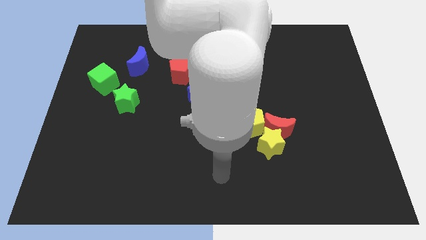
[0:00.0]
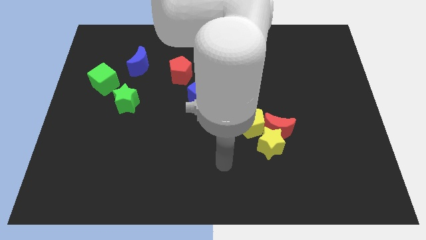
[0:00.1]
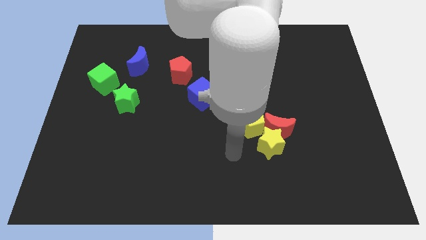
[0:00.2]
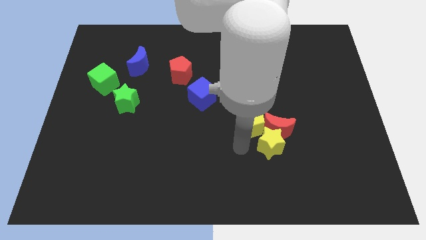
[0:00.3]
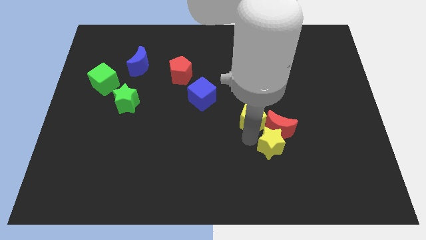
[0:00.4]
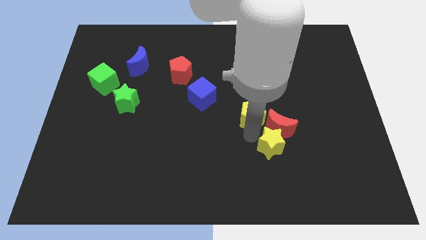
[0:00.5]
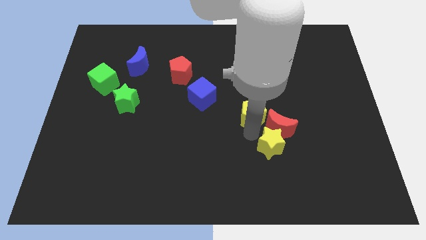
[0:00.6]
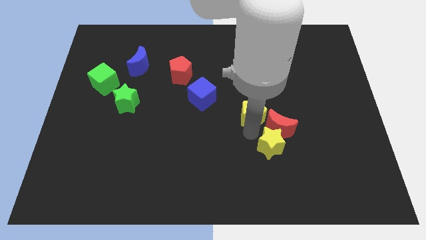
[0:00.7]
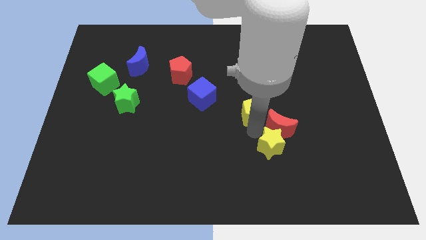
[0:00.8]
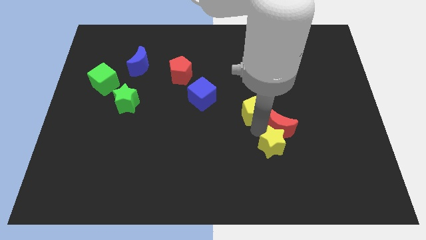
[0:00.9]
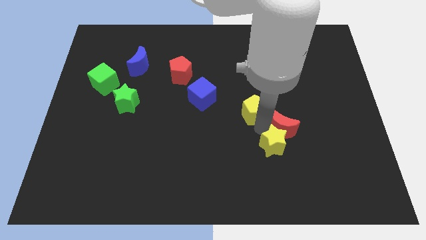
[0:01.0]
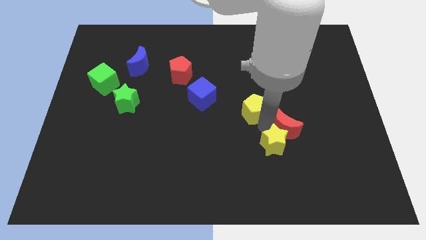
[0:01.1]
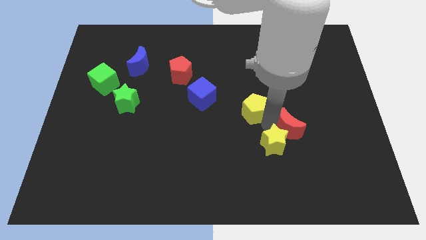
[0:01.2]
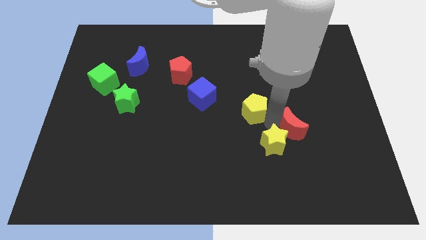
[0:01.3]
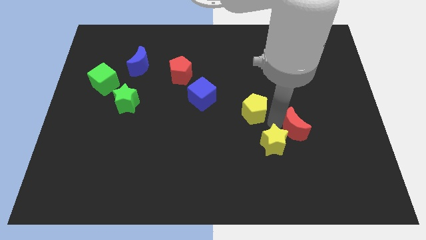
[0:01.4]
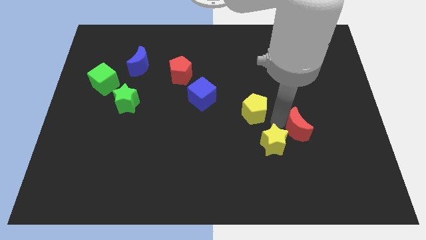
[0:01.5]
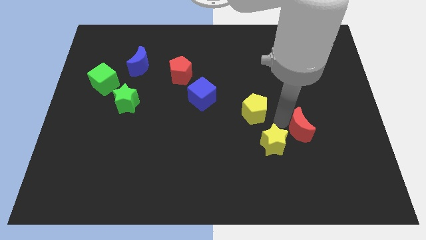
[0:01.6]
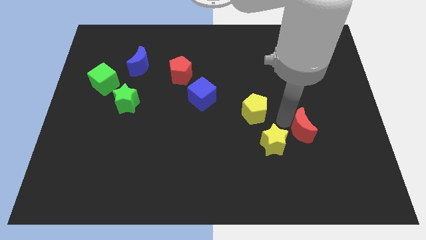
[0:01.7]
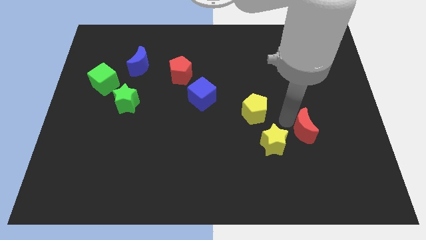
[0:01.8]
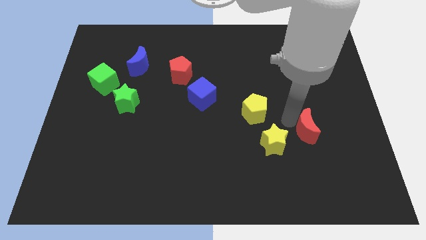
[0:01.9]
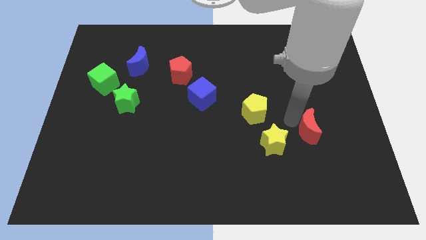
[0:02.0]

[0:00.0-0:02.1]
move the red moon away from the yellow star and yellow pentagon

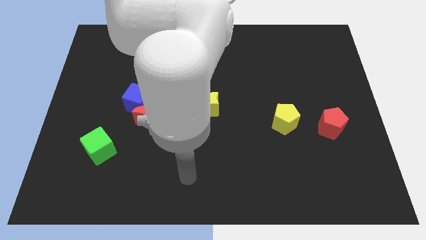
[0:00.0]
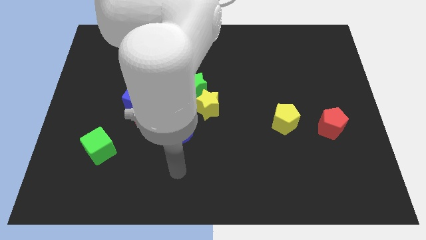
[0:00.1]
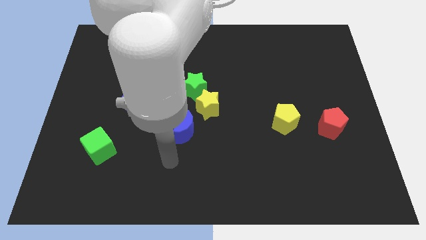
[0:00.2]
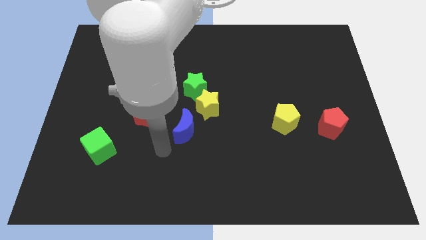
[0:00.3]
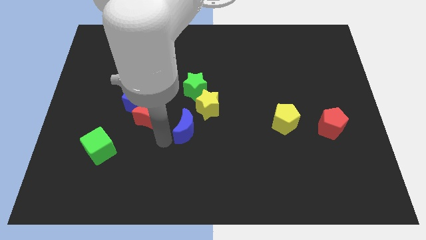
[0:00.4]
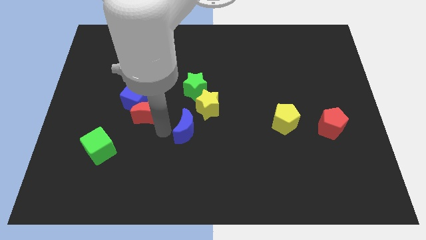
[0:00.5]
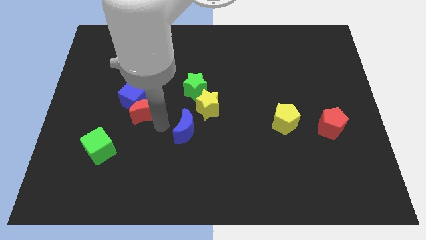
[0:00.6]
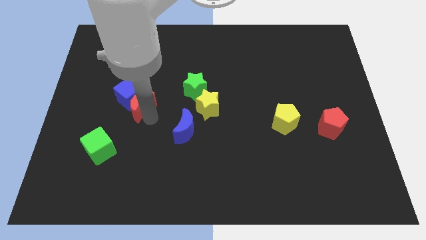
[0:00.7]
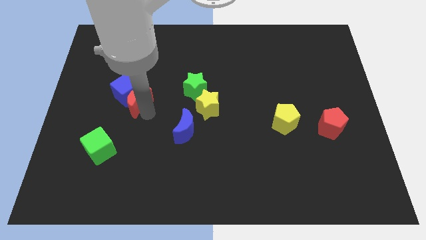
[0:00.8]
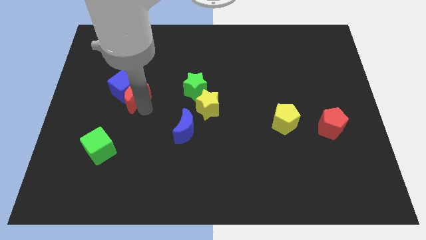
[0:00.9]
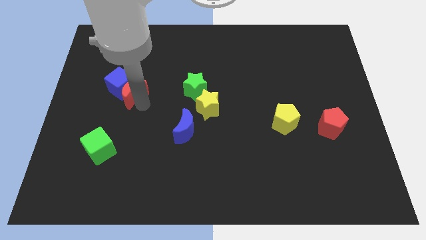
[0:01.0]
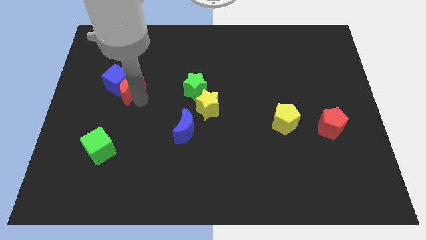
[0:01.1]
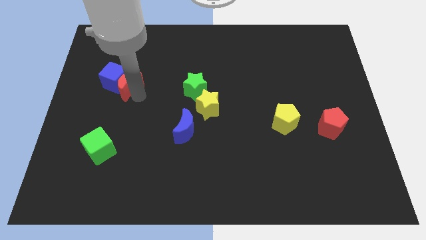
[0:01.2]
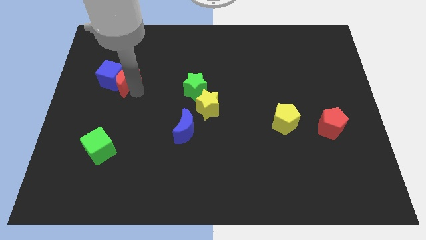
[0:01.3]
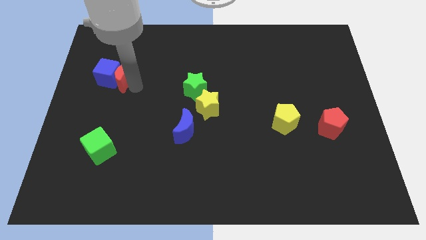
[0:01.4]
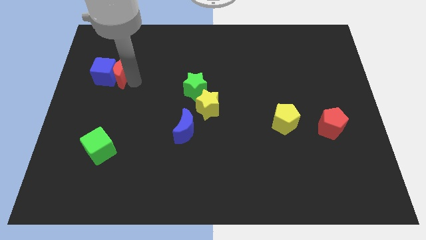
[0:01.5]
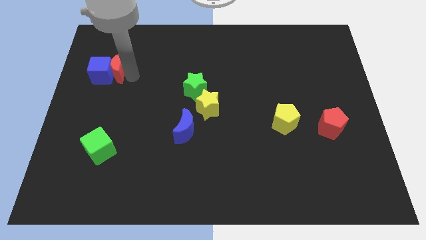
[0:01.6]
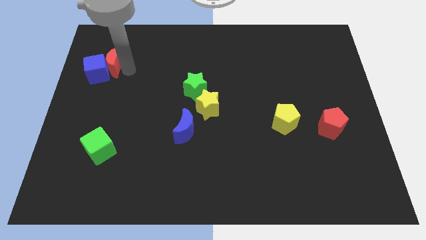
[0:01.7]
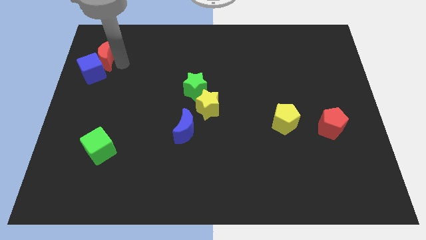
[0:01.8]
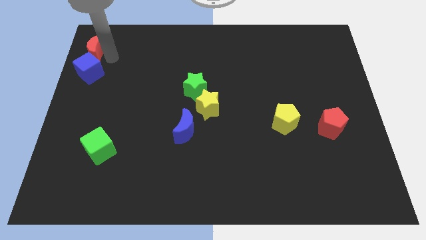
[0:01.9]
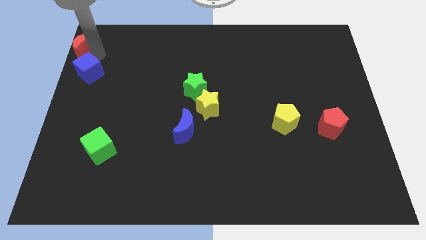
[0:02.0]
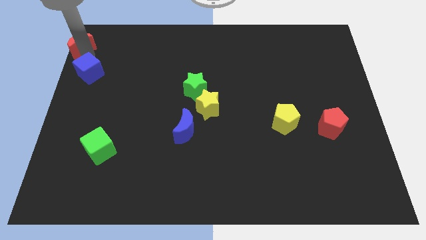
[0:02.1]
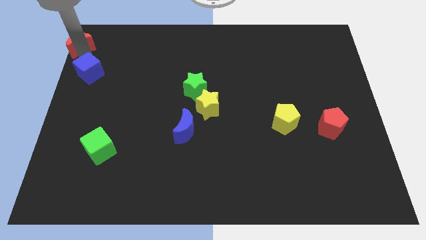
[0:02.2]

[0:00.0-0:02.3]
pull the blue cube apart from the red moon

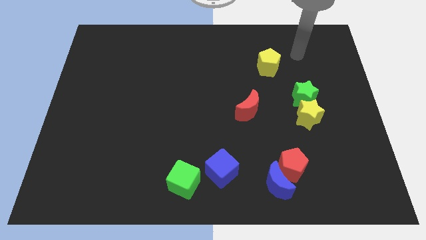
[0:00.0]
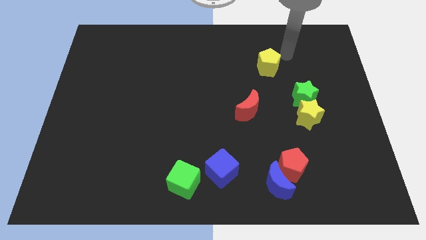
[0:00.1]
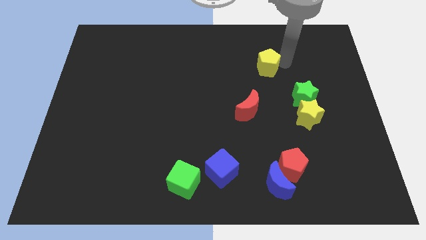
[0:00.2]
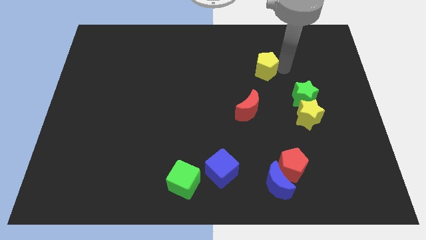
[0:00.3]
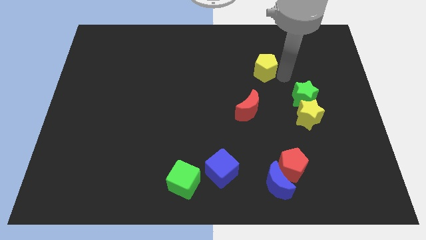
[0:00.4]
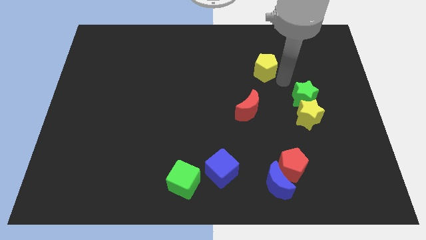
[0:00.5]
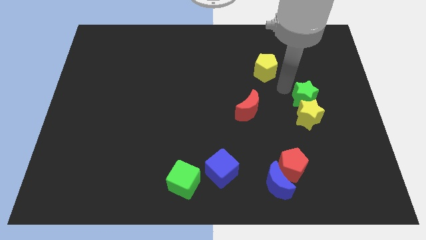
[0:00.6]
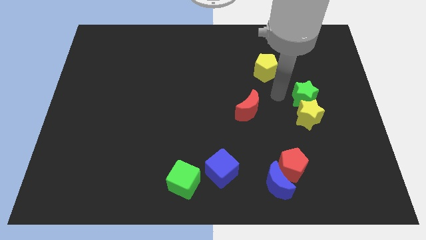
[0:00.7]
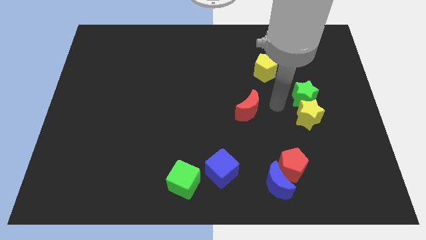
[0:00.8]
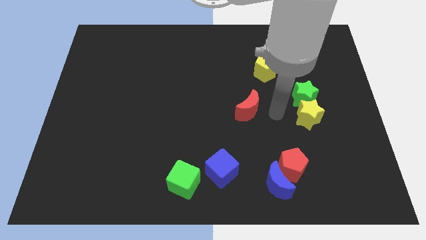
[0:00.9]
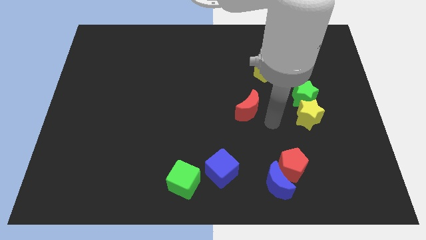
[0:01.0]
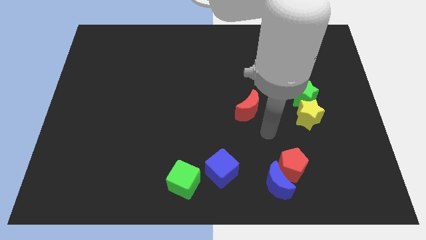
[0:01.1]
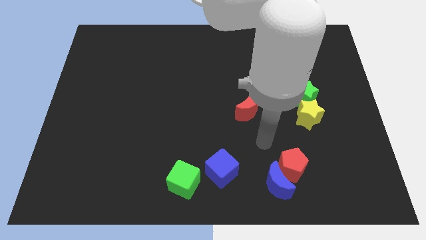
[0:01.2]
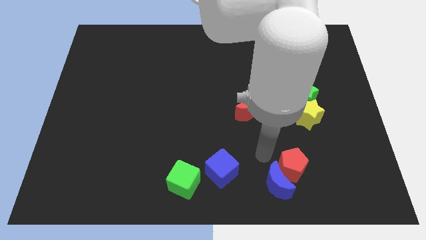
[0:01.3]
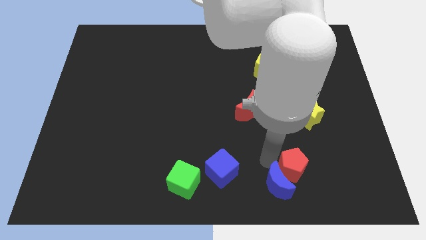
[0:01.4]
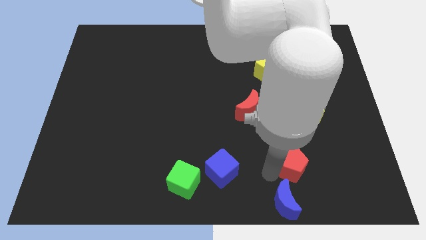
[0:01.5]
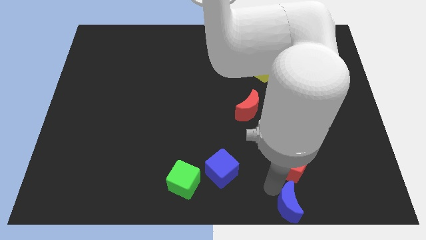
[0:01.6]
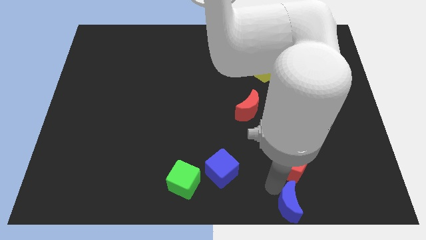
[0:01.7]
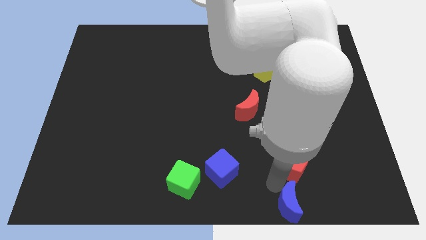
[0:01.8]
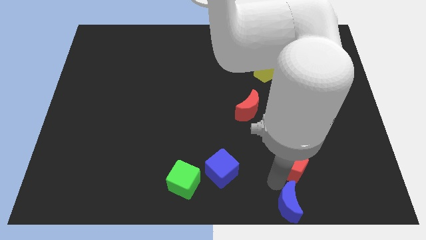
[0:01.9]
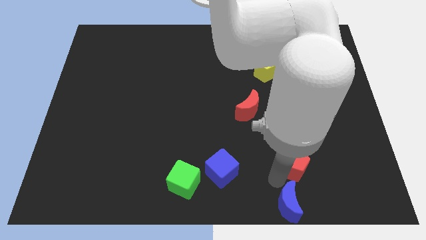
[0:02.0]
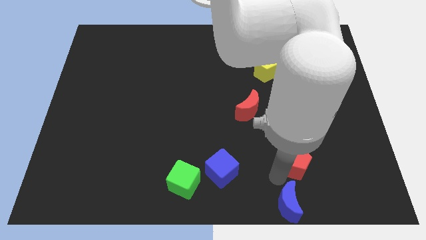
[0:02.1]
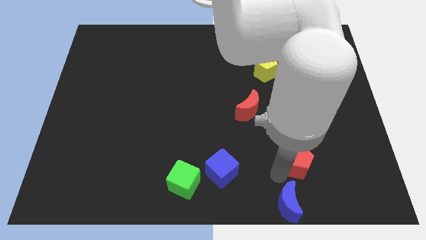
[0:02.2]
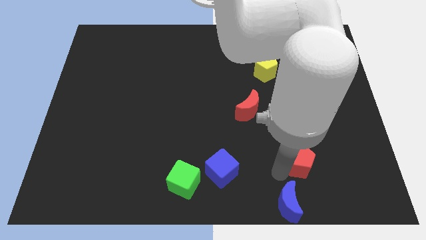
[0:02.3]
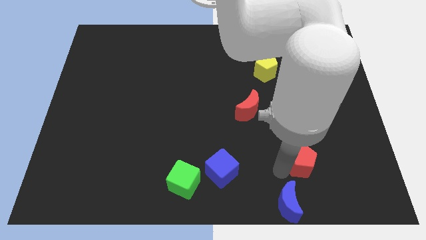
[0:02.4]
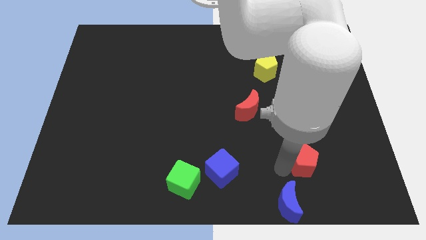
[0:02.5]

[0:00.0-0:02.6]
separate the red pentagon from the blue moon

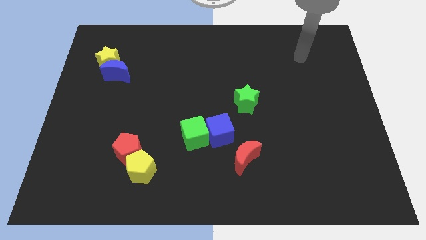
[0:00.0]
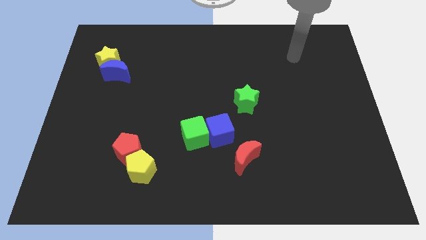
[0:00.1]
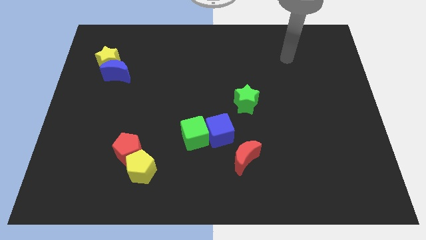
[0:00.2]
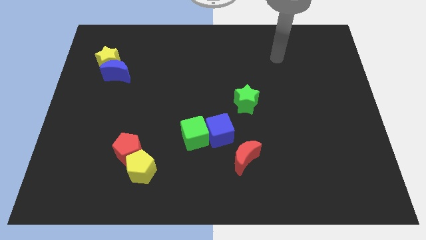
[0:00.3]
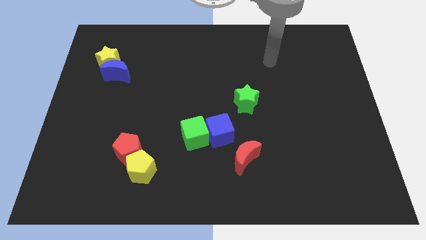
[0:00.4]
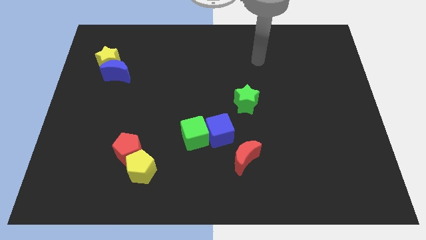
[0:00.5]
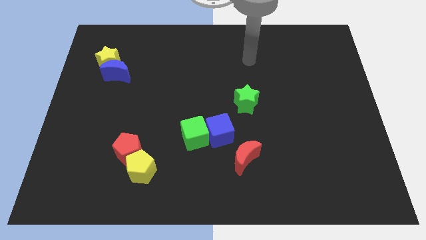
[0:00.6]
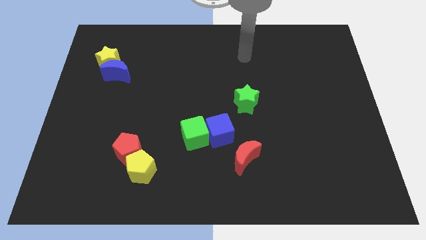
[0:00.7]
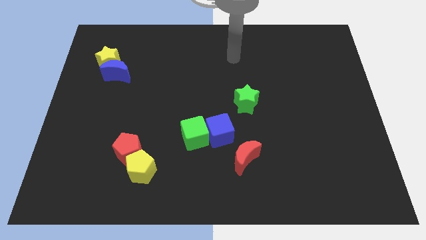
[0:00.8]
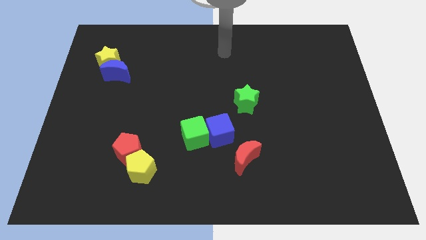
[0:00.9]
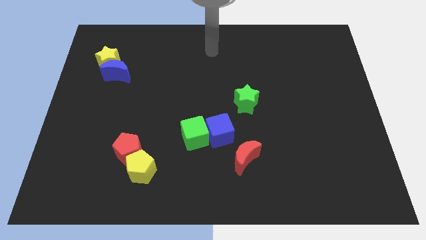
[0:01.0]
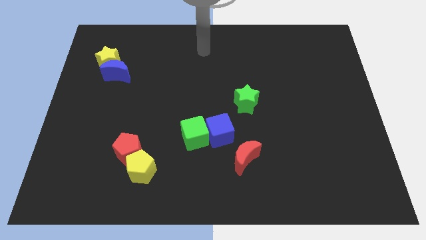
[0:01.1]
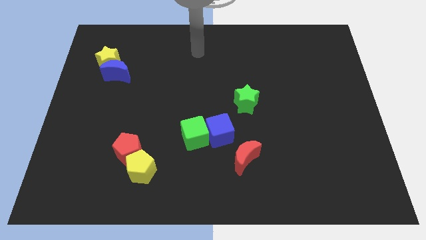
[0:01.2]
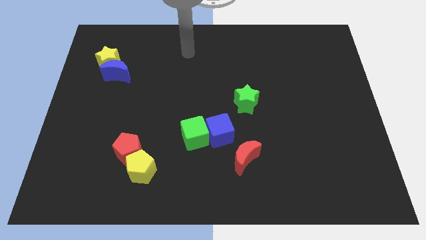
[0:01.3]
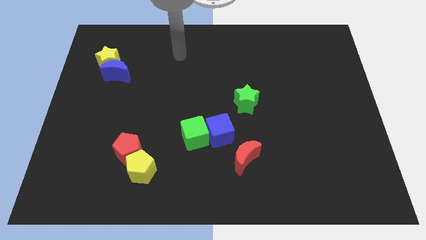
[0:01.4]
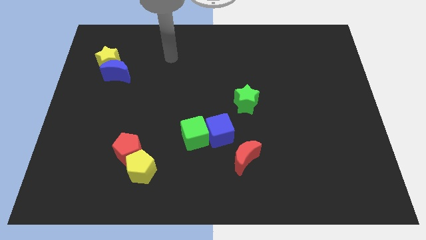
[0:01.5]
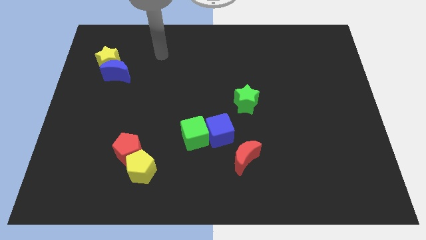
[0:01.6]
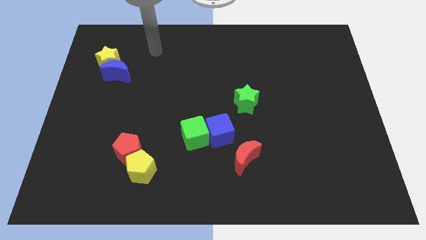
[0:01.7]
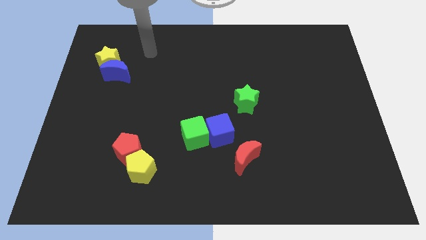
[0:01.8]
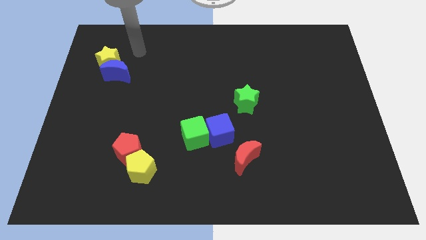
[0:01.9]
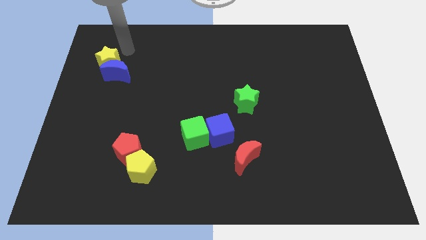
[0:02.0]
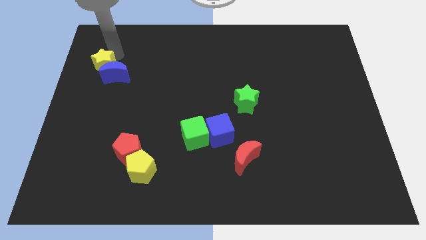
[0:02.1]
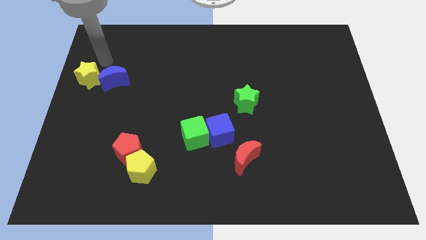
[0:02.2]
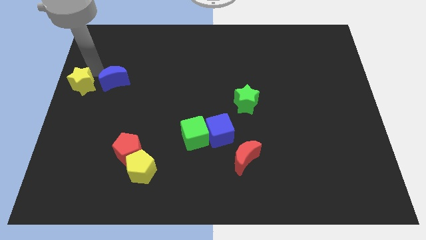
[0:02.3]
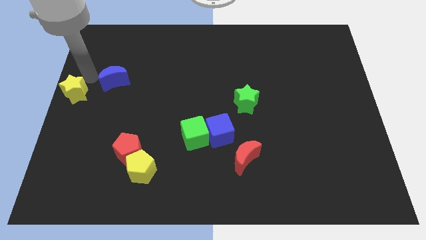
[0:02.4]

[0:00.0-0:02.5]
pull the blue moon apart from the yellow star
